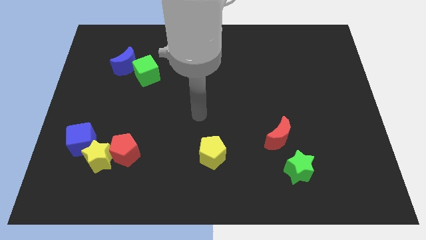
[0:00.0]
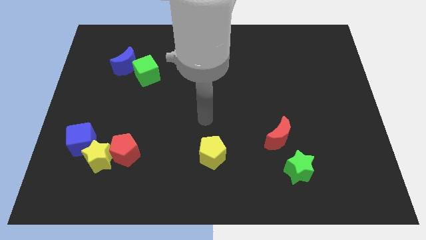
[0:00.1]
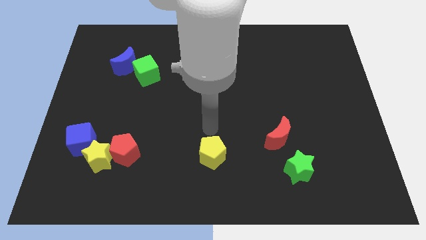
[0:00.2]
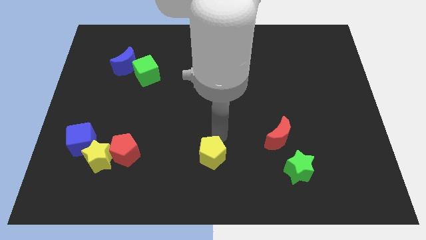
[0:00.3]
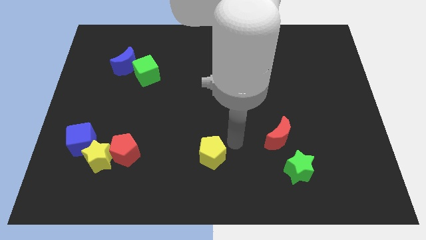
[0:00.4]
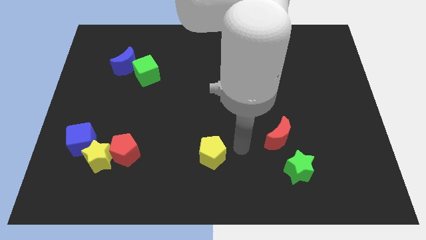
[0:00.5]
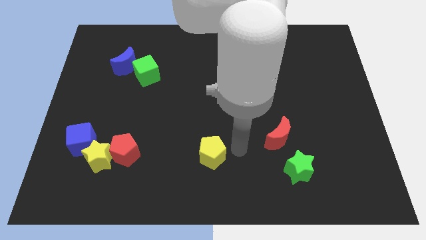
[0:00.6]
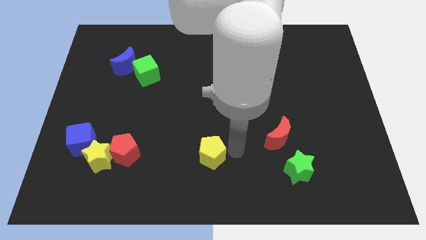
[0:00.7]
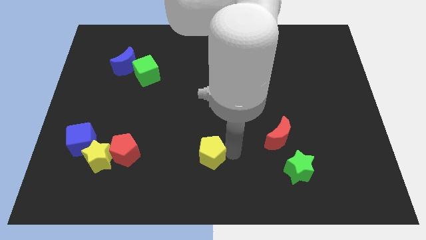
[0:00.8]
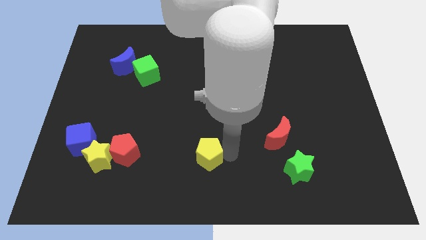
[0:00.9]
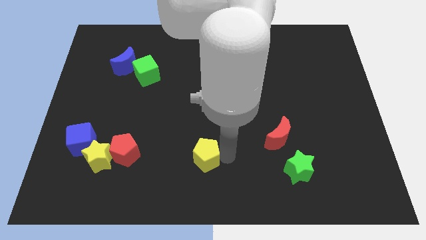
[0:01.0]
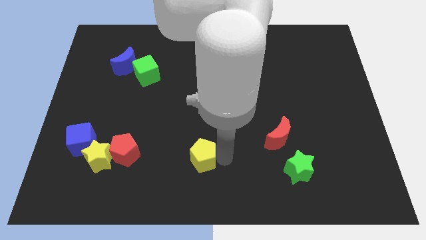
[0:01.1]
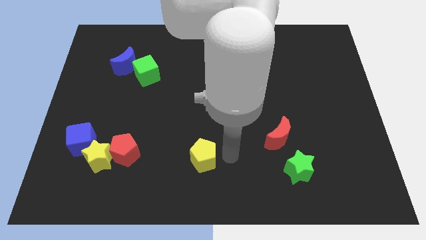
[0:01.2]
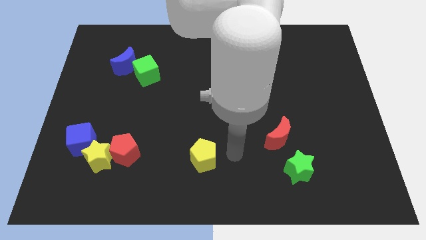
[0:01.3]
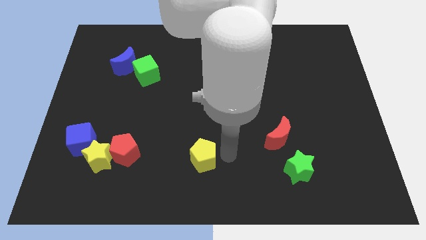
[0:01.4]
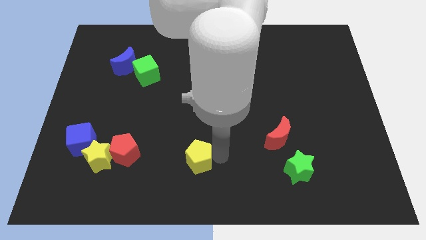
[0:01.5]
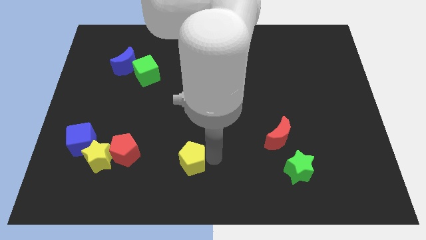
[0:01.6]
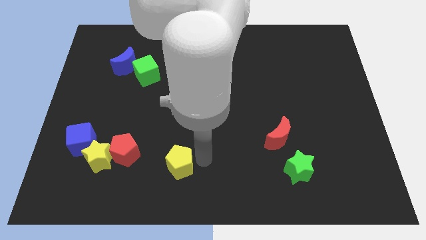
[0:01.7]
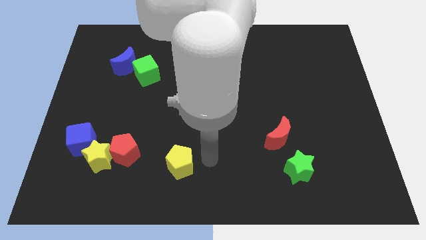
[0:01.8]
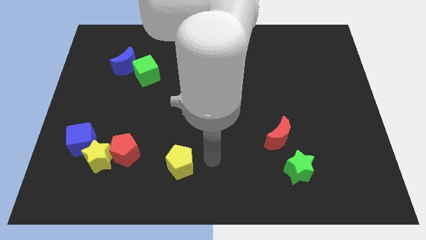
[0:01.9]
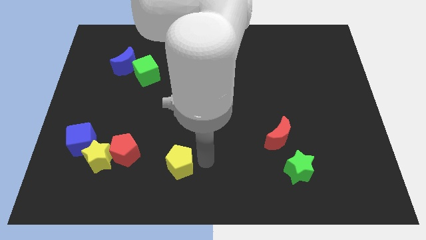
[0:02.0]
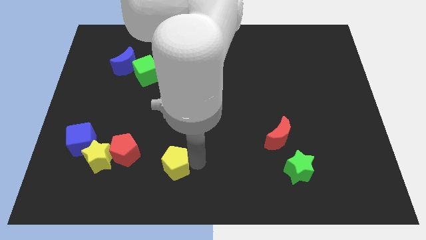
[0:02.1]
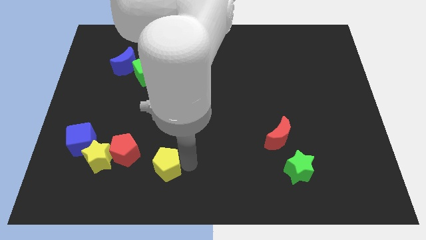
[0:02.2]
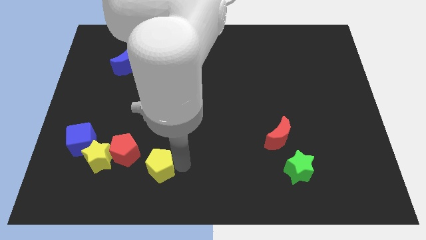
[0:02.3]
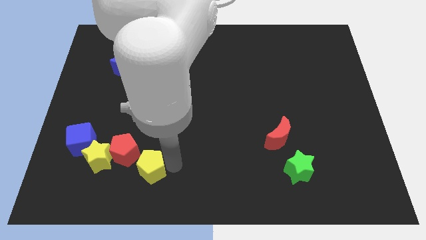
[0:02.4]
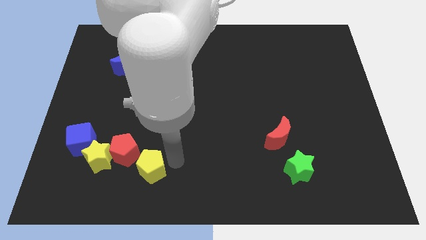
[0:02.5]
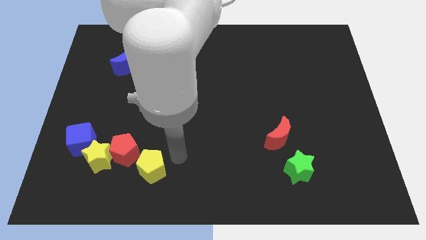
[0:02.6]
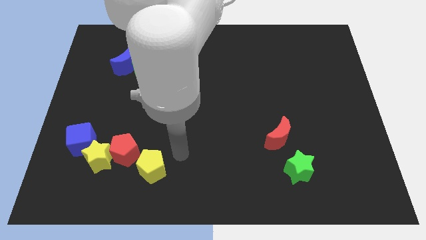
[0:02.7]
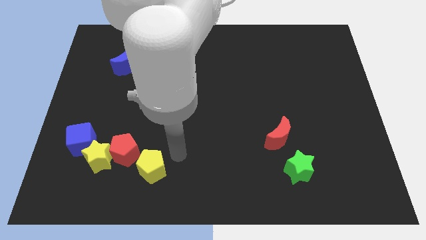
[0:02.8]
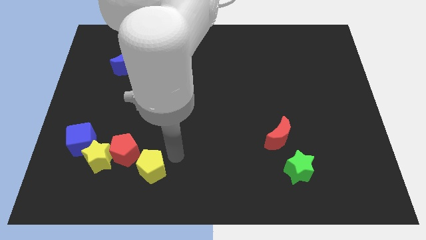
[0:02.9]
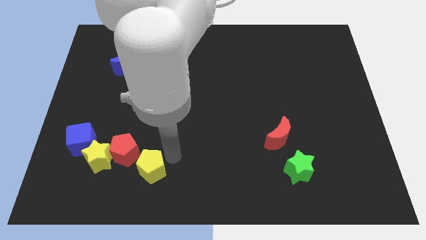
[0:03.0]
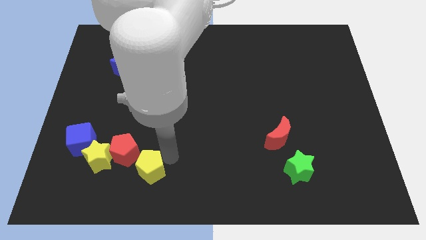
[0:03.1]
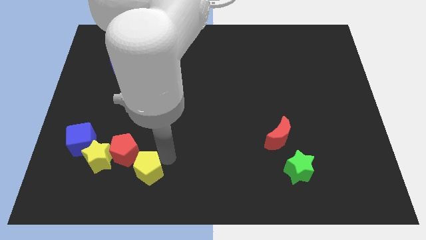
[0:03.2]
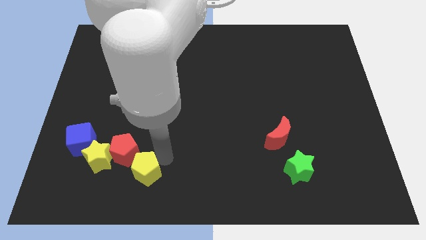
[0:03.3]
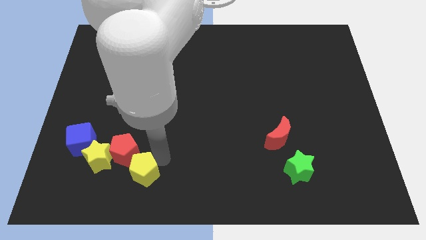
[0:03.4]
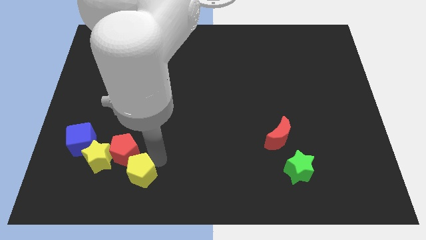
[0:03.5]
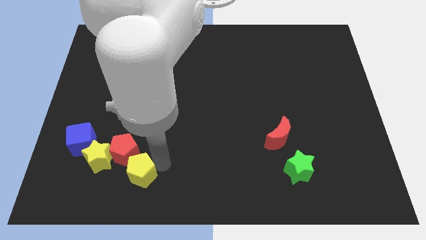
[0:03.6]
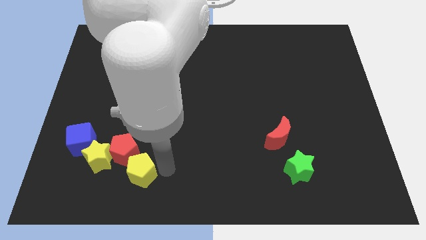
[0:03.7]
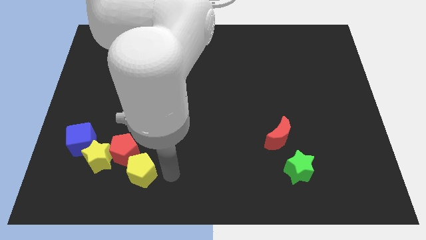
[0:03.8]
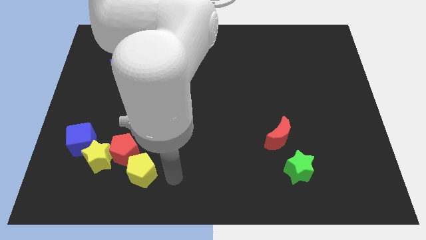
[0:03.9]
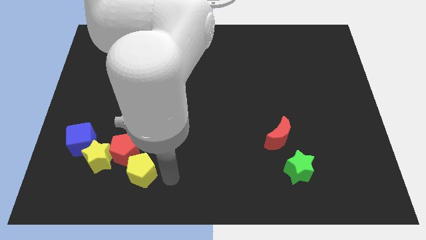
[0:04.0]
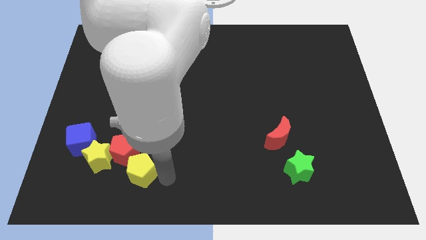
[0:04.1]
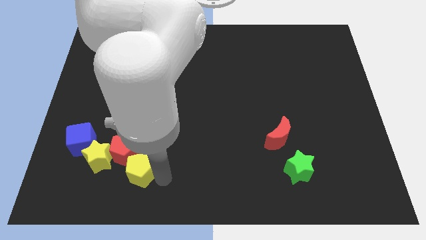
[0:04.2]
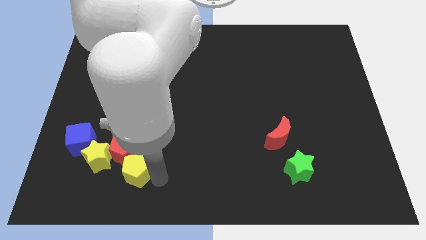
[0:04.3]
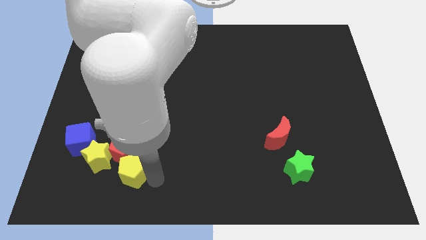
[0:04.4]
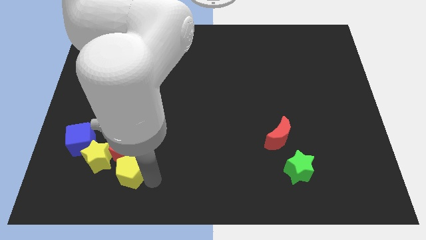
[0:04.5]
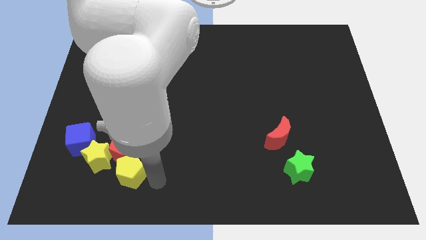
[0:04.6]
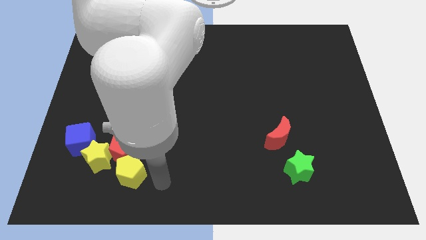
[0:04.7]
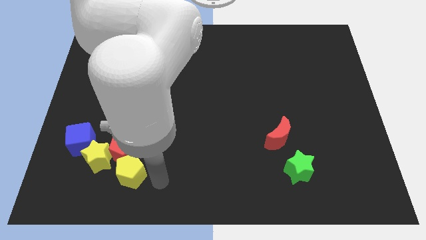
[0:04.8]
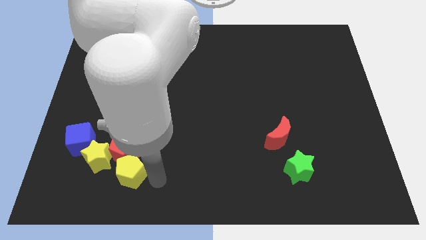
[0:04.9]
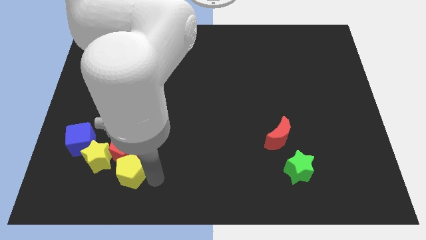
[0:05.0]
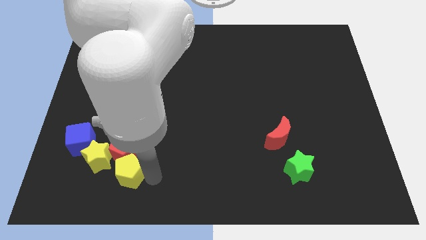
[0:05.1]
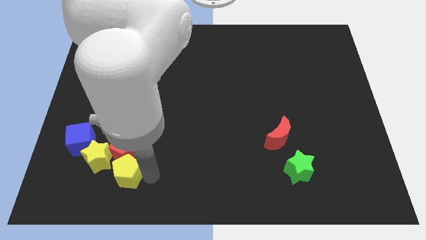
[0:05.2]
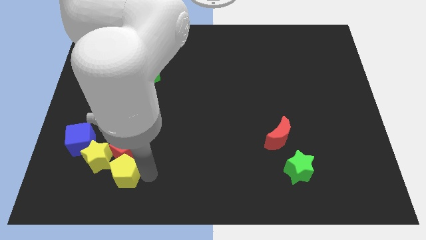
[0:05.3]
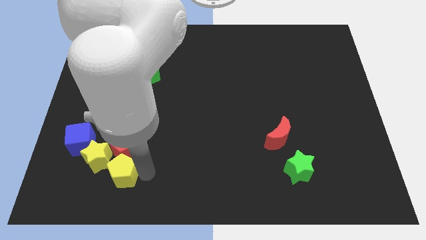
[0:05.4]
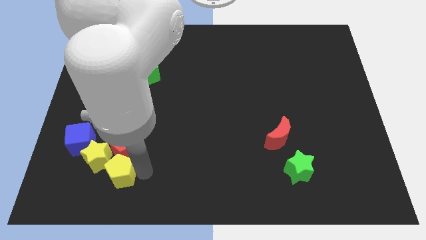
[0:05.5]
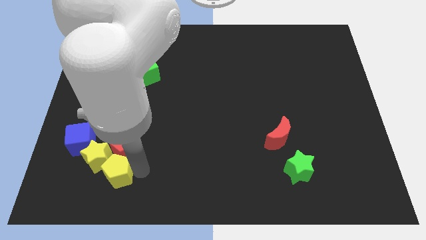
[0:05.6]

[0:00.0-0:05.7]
push the yellow pentagon close to the yellow star

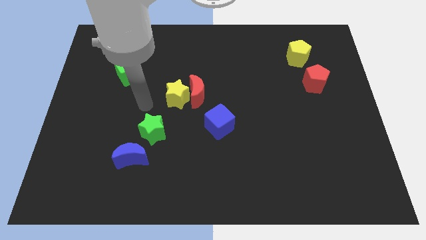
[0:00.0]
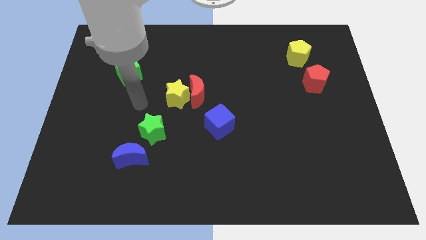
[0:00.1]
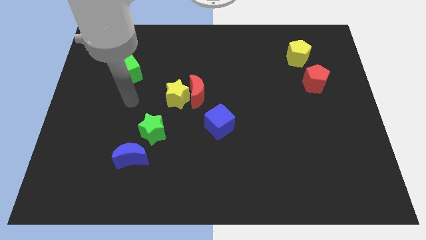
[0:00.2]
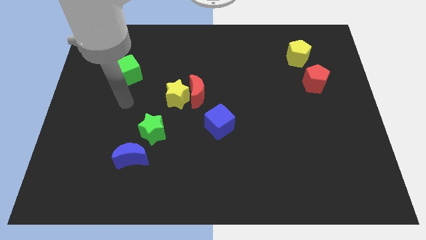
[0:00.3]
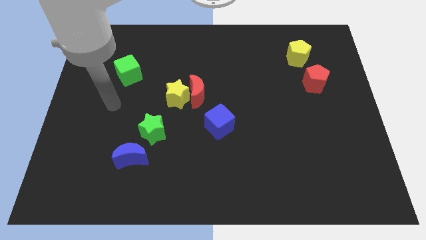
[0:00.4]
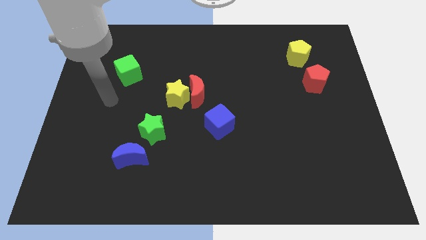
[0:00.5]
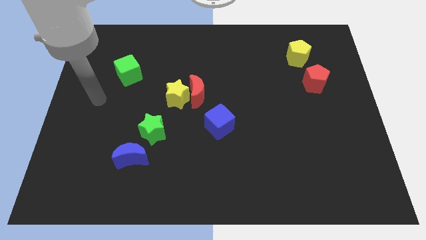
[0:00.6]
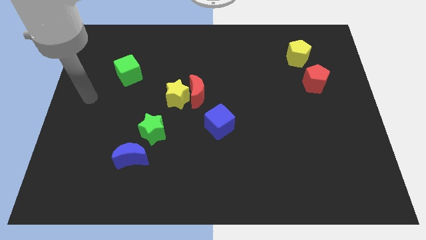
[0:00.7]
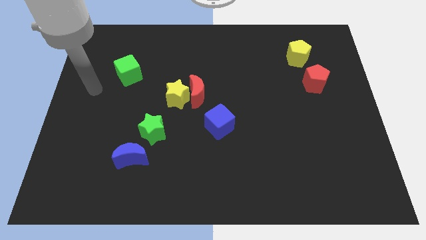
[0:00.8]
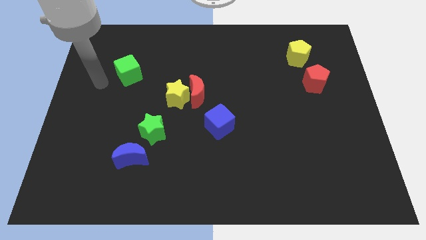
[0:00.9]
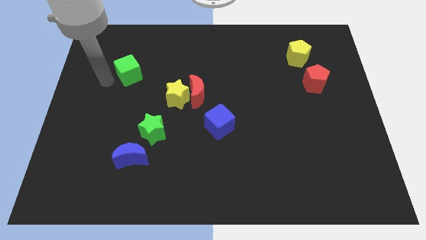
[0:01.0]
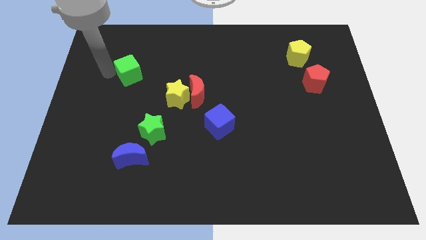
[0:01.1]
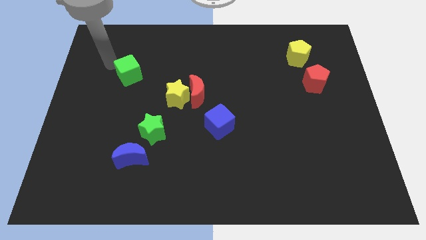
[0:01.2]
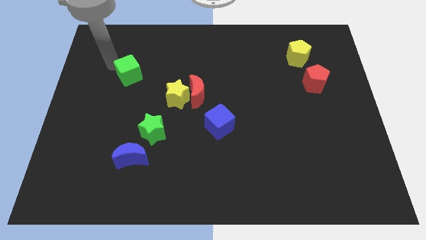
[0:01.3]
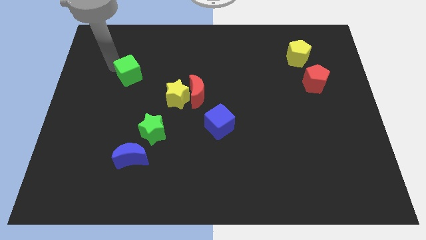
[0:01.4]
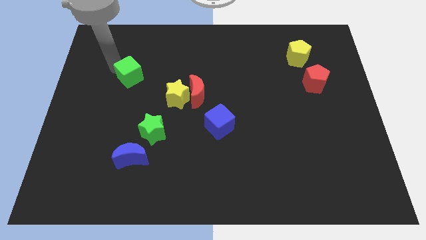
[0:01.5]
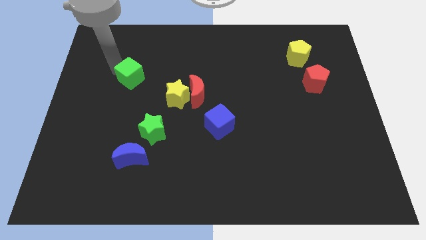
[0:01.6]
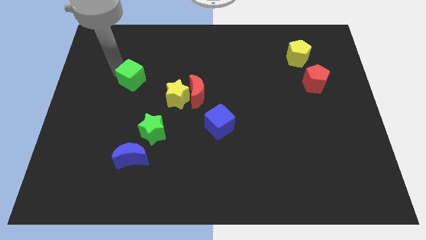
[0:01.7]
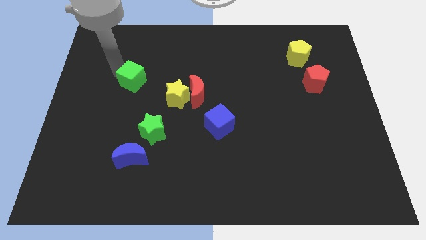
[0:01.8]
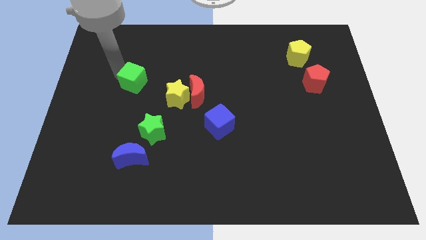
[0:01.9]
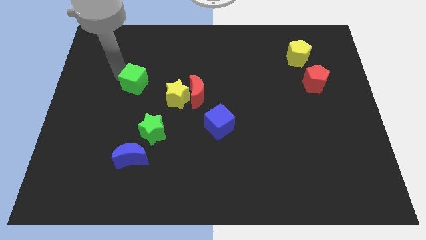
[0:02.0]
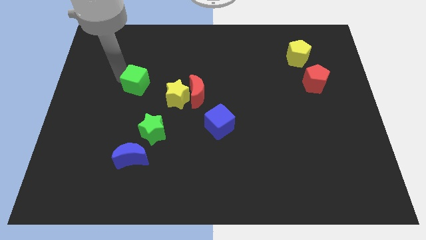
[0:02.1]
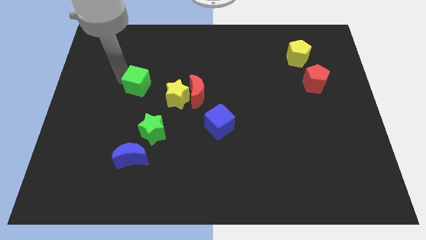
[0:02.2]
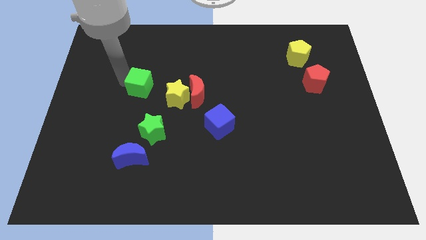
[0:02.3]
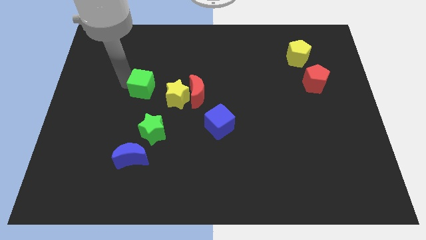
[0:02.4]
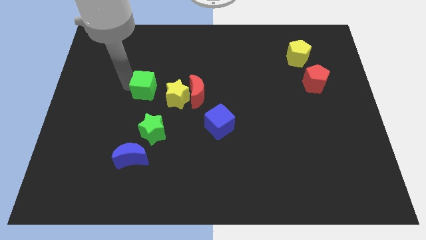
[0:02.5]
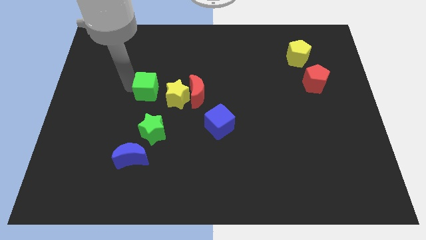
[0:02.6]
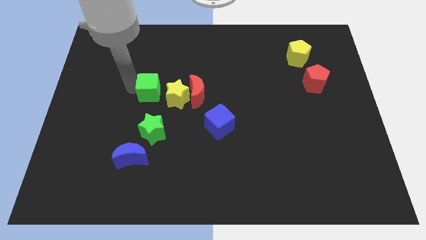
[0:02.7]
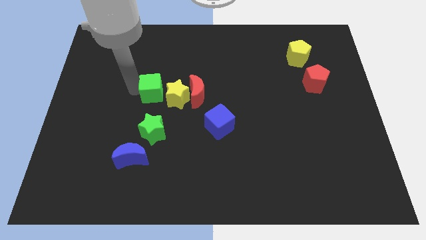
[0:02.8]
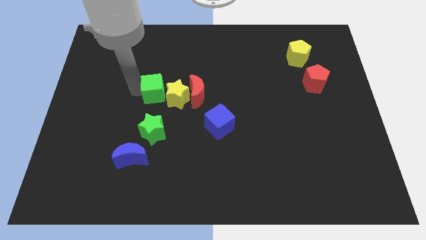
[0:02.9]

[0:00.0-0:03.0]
move the green cube close to the yellow star
